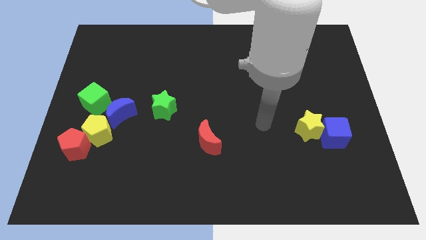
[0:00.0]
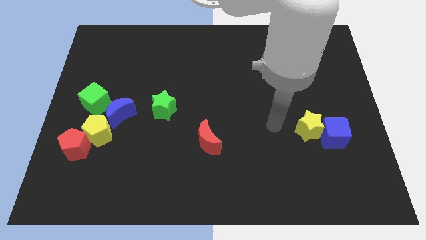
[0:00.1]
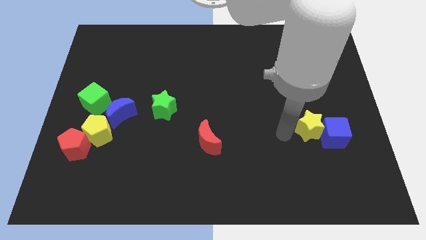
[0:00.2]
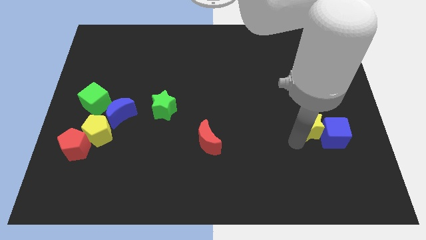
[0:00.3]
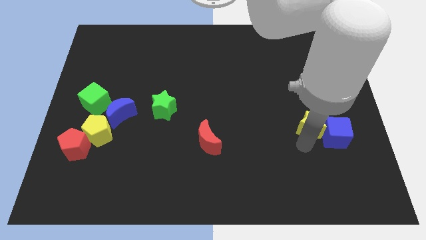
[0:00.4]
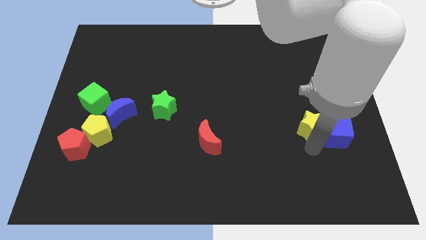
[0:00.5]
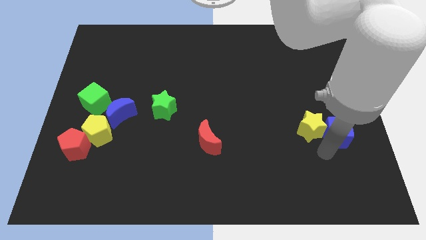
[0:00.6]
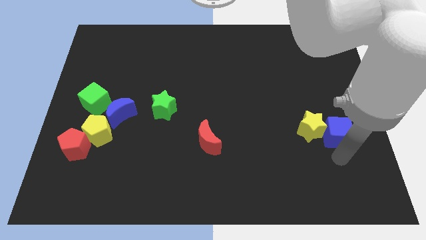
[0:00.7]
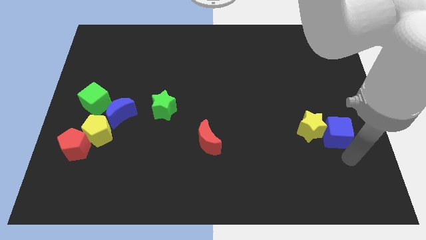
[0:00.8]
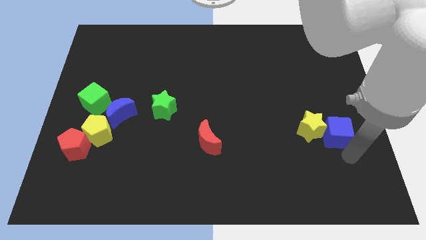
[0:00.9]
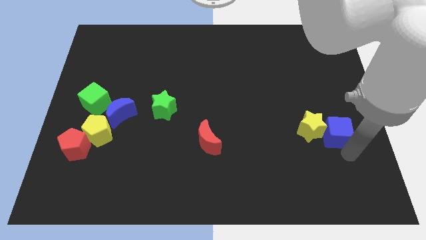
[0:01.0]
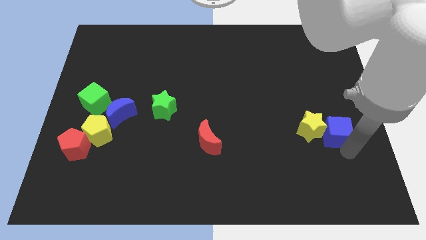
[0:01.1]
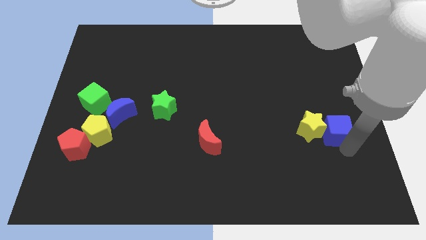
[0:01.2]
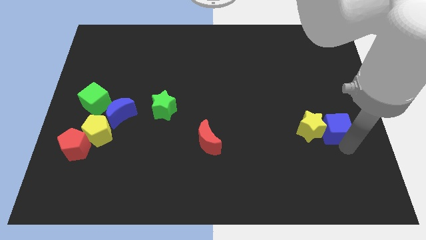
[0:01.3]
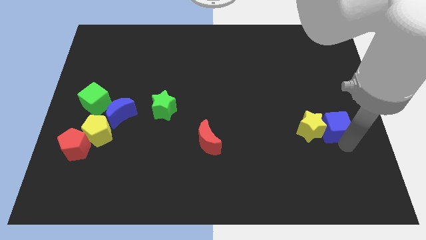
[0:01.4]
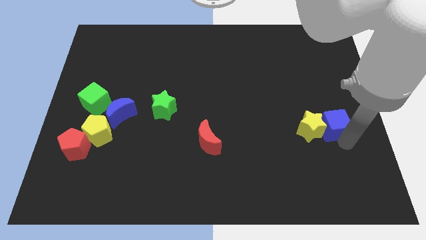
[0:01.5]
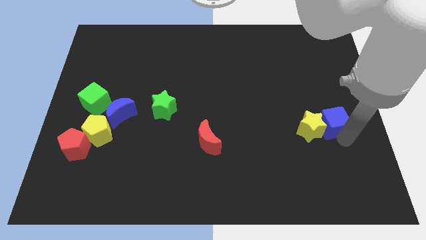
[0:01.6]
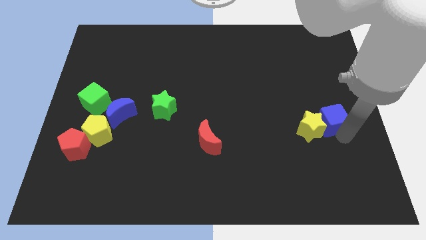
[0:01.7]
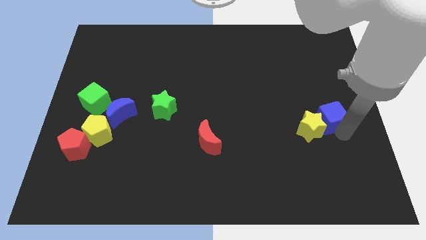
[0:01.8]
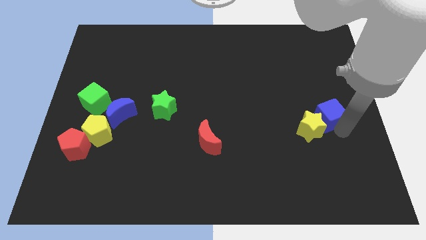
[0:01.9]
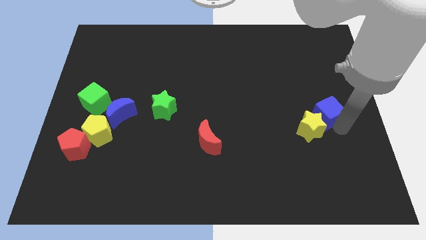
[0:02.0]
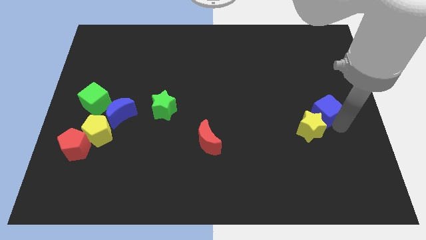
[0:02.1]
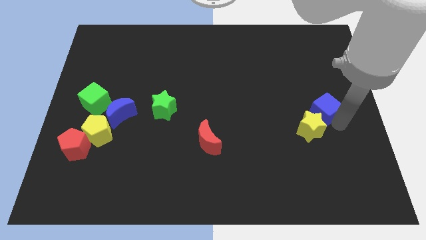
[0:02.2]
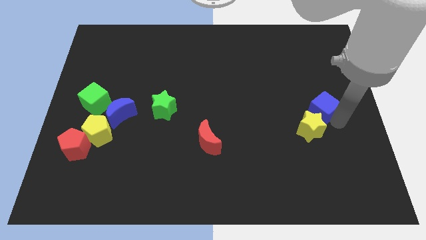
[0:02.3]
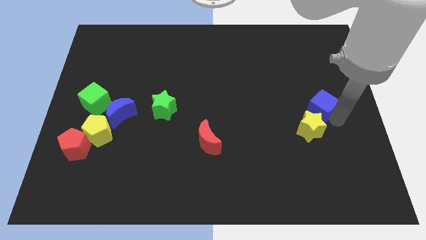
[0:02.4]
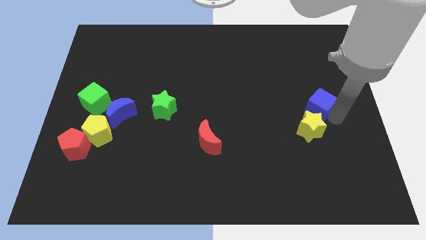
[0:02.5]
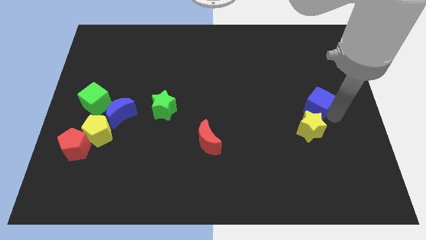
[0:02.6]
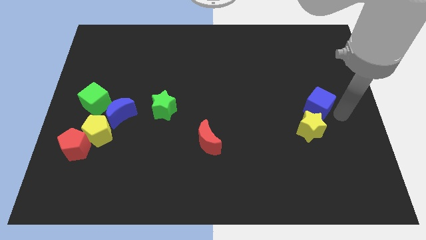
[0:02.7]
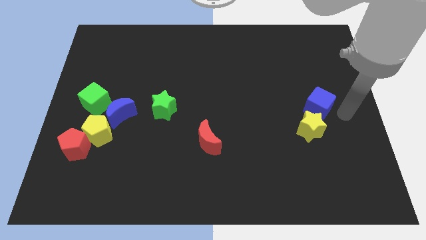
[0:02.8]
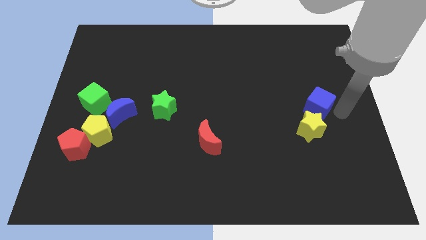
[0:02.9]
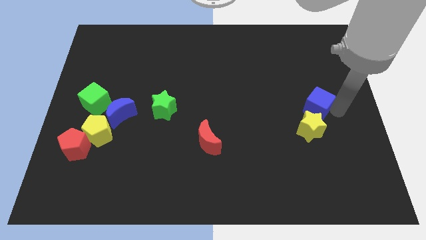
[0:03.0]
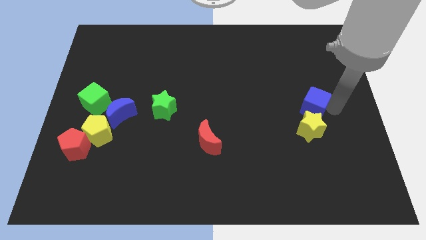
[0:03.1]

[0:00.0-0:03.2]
slide the blue cube upwards and left somewhat

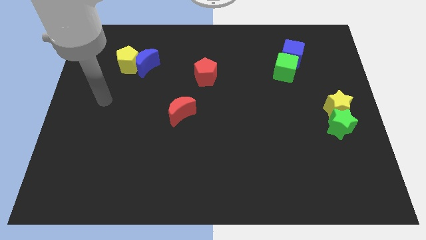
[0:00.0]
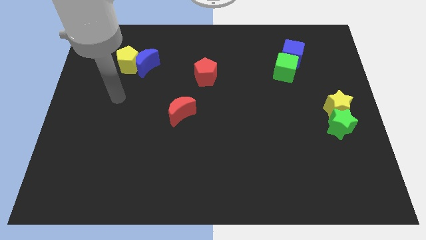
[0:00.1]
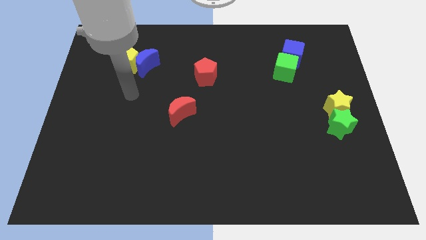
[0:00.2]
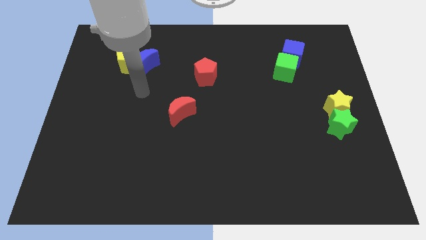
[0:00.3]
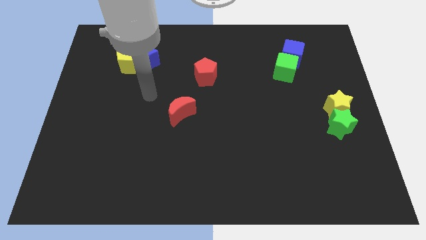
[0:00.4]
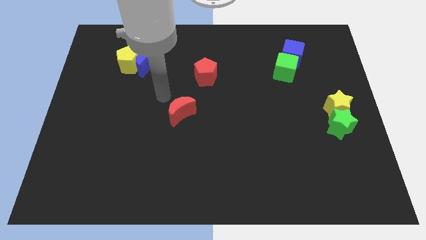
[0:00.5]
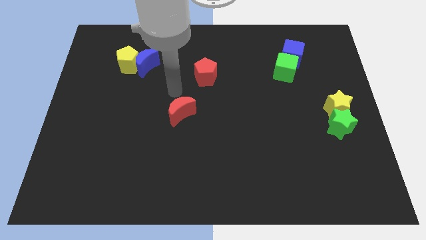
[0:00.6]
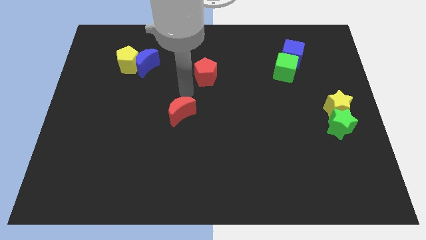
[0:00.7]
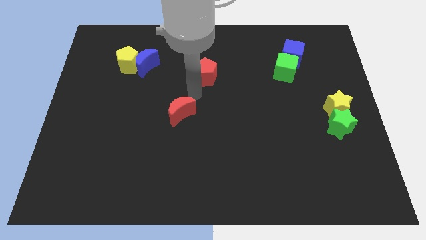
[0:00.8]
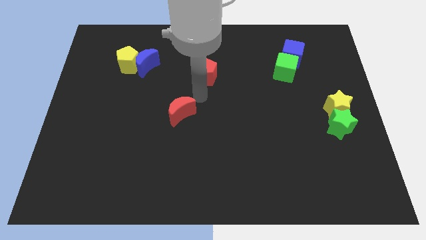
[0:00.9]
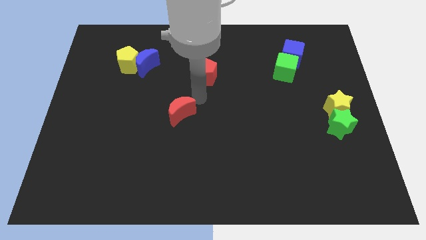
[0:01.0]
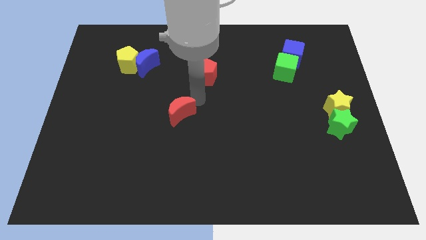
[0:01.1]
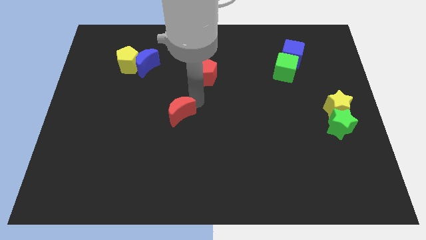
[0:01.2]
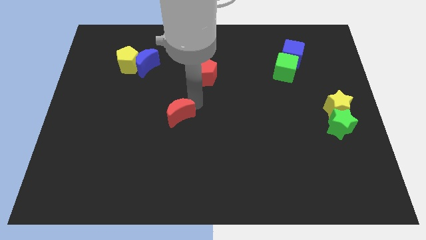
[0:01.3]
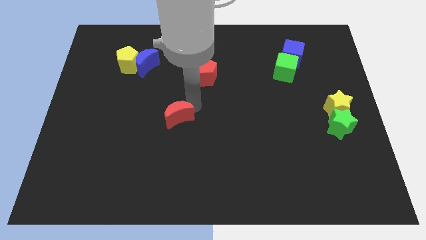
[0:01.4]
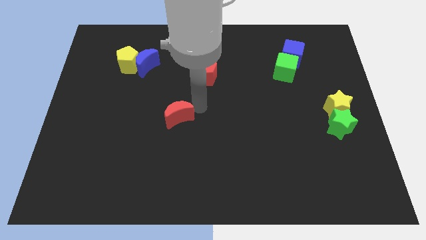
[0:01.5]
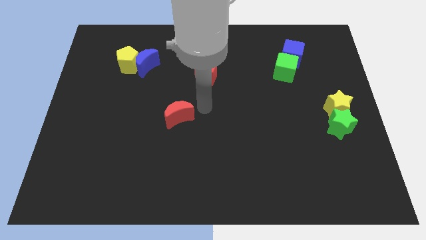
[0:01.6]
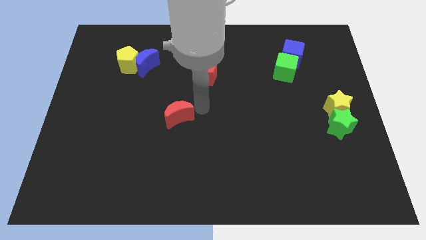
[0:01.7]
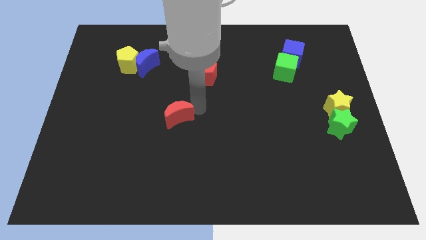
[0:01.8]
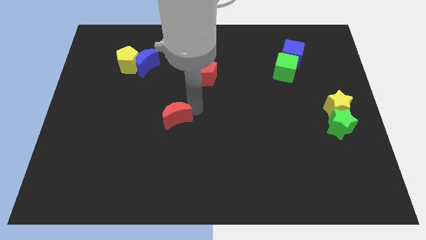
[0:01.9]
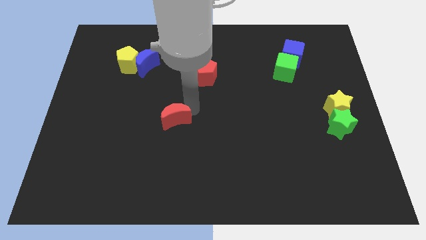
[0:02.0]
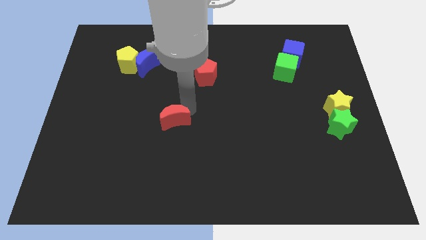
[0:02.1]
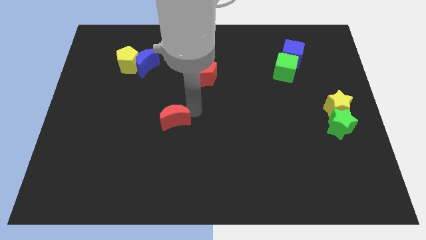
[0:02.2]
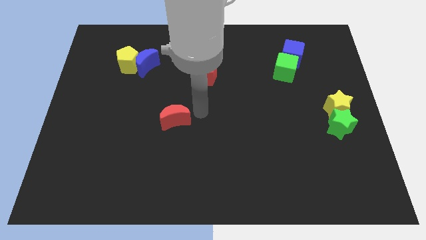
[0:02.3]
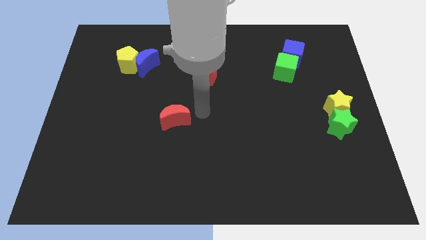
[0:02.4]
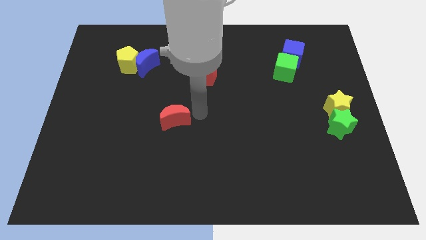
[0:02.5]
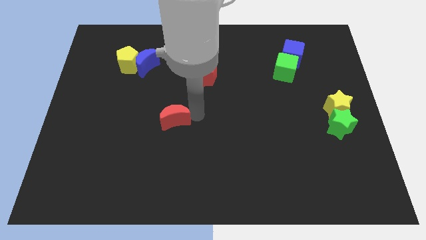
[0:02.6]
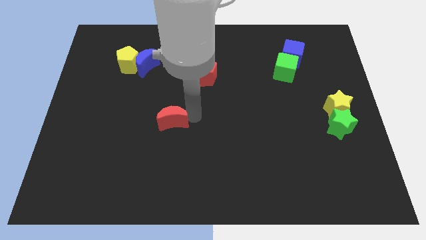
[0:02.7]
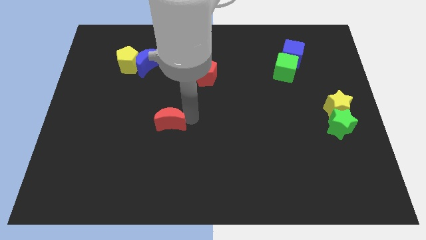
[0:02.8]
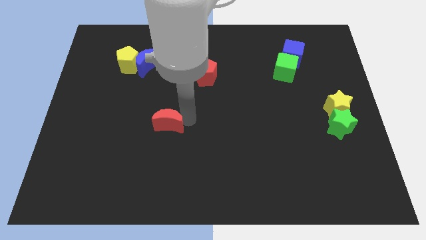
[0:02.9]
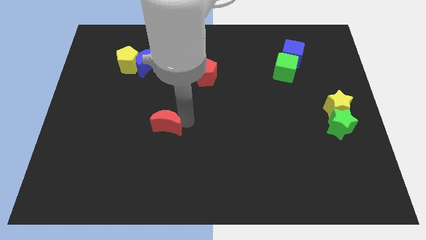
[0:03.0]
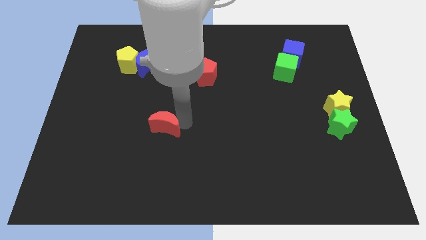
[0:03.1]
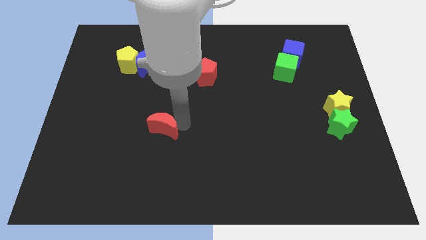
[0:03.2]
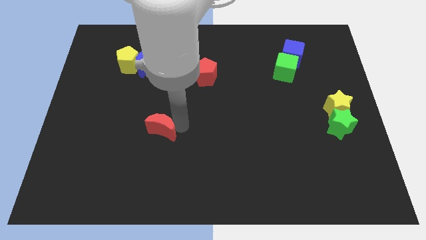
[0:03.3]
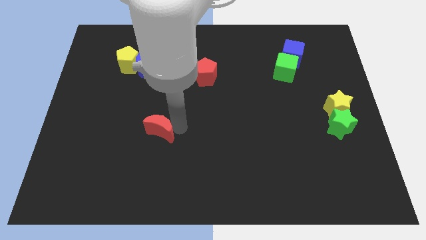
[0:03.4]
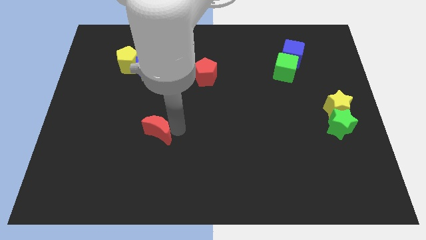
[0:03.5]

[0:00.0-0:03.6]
slightly push the red moon downwards and then left

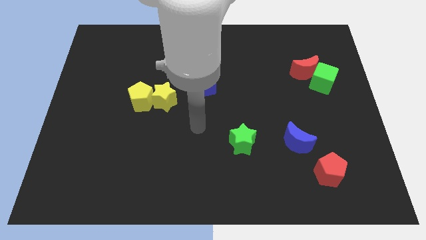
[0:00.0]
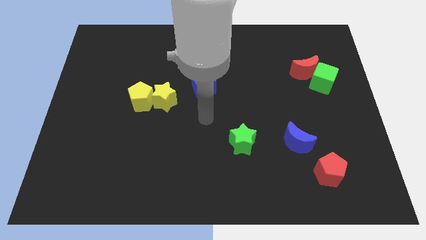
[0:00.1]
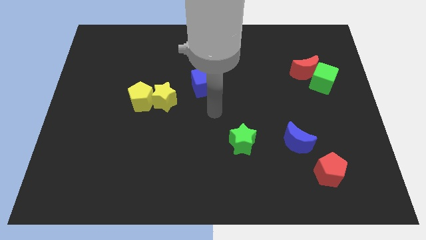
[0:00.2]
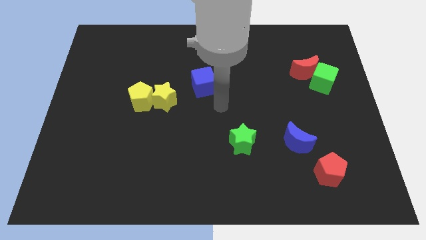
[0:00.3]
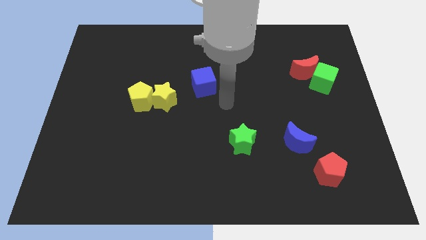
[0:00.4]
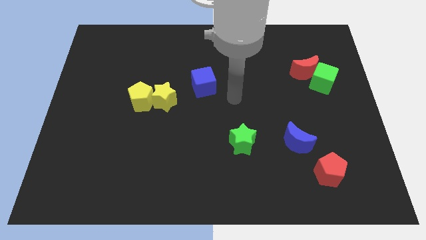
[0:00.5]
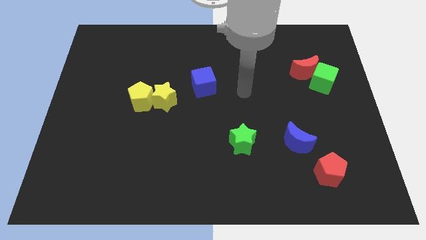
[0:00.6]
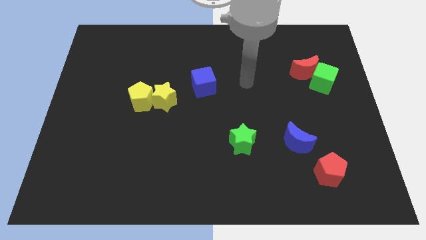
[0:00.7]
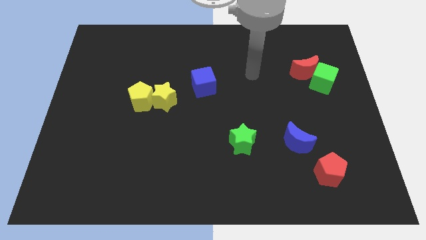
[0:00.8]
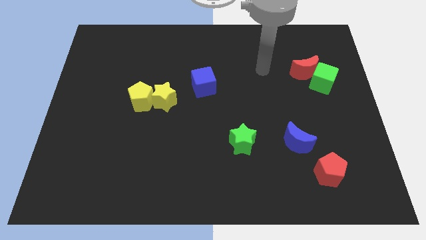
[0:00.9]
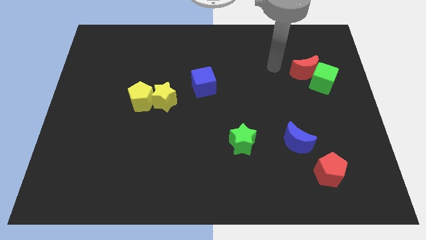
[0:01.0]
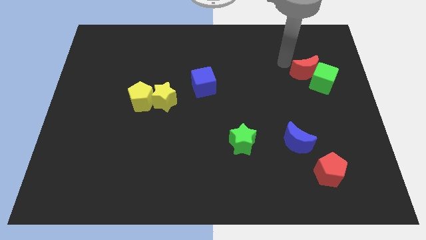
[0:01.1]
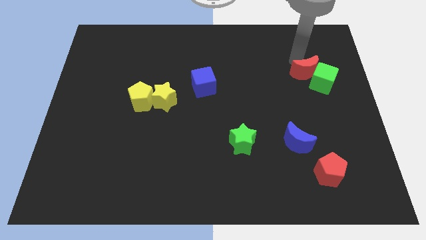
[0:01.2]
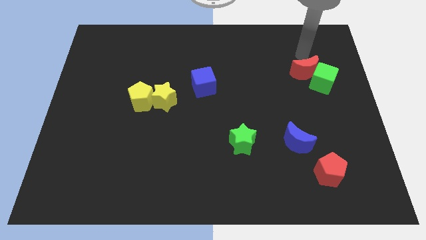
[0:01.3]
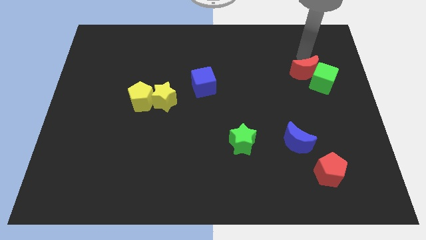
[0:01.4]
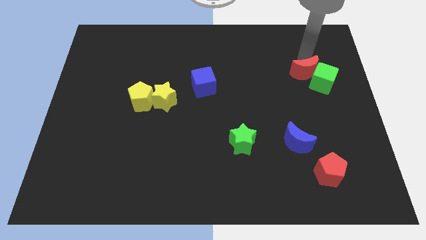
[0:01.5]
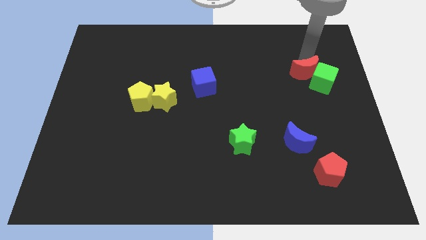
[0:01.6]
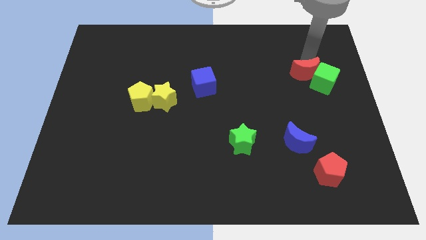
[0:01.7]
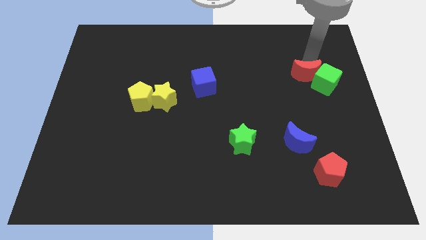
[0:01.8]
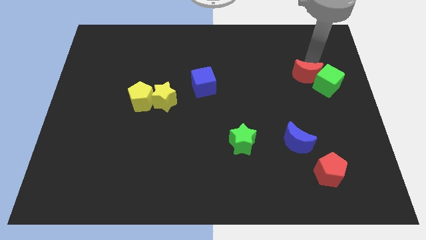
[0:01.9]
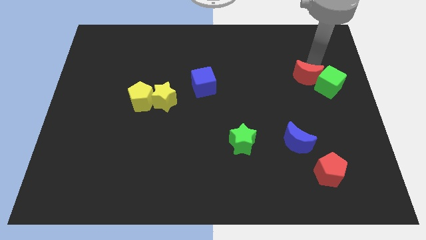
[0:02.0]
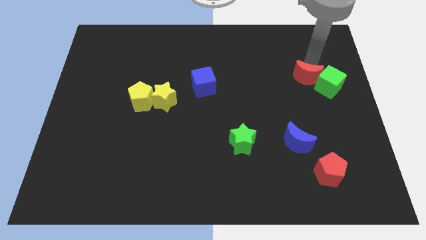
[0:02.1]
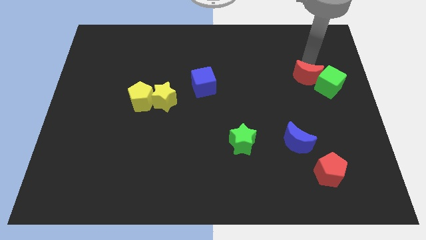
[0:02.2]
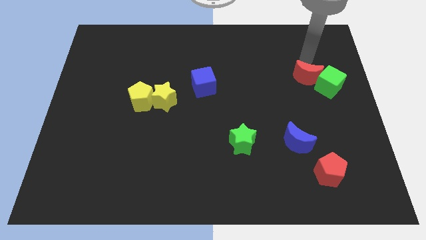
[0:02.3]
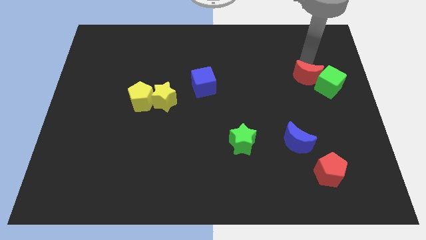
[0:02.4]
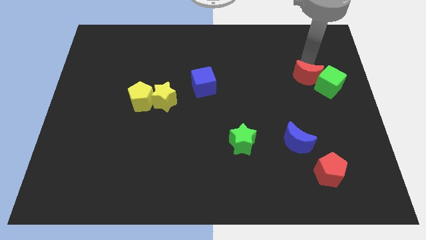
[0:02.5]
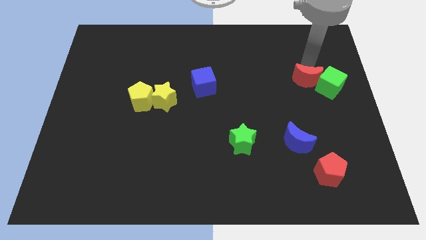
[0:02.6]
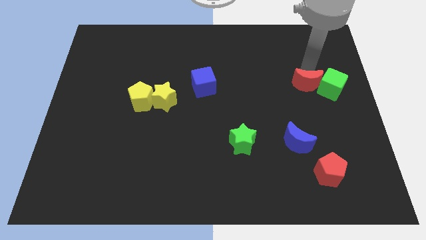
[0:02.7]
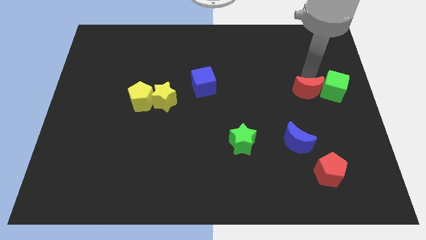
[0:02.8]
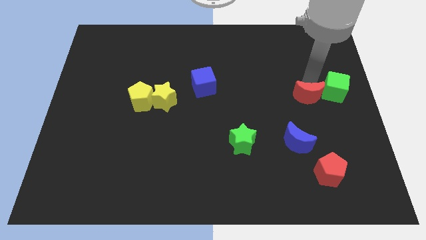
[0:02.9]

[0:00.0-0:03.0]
push the red moon a bit downwards
